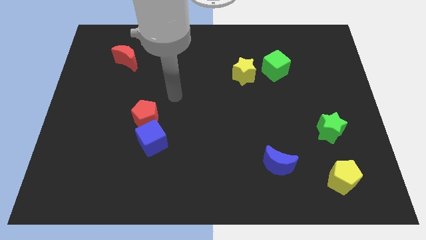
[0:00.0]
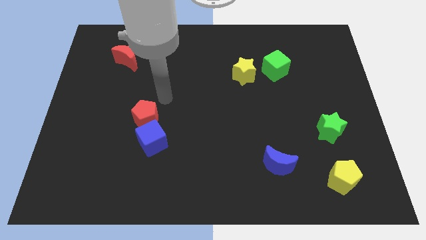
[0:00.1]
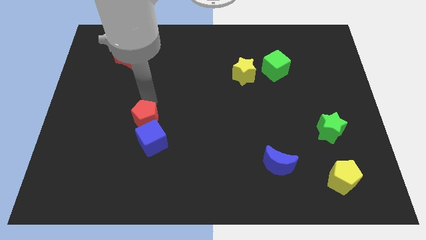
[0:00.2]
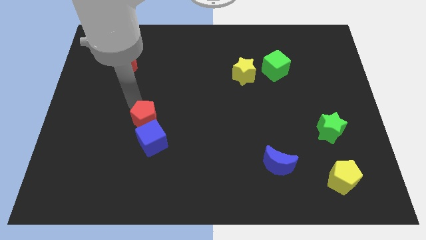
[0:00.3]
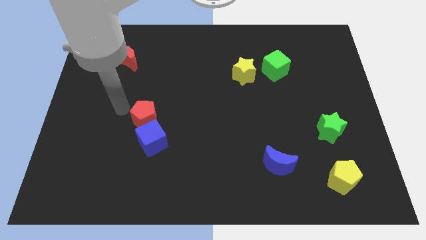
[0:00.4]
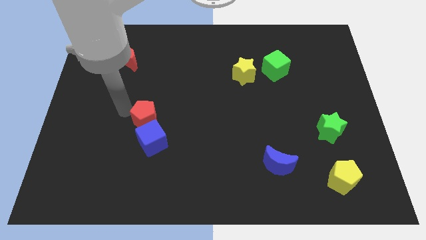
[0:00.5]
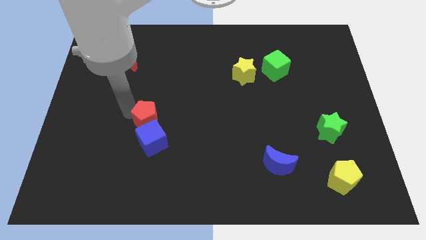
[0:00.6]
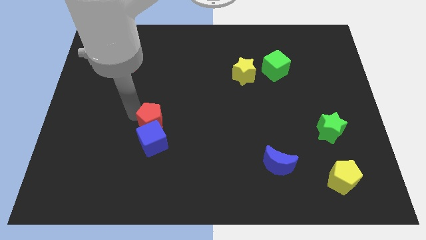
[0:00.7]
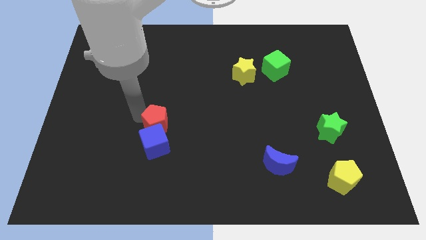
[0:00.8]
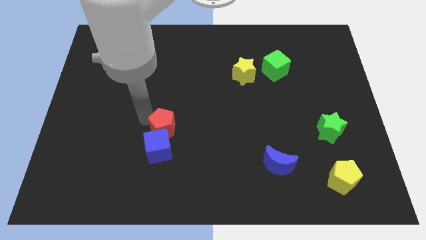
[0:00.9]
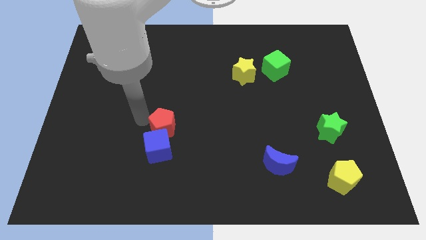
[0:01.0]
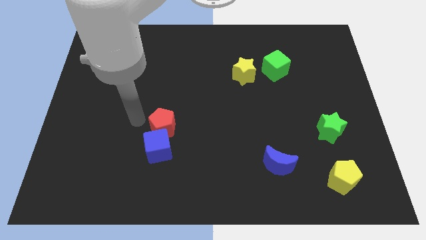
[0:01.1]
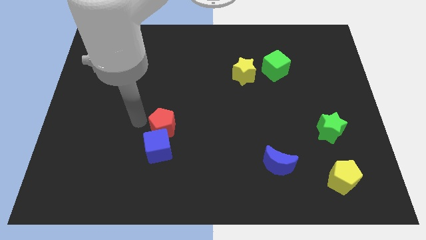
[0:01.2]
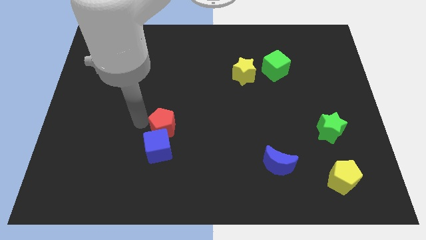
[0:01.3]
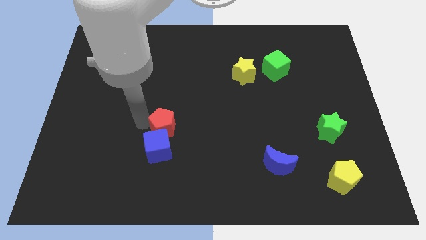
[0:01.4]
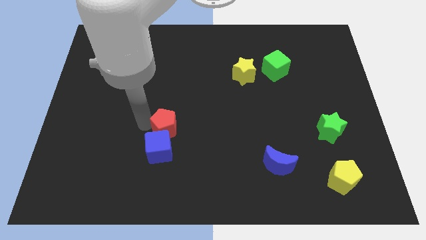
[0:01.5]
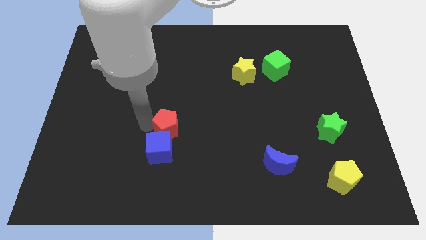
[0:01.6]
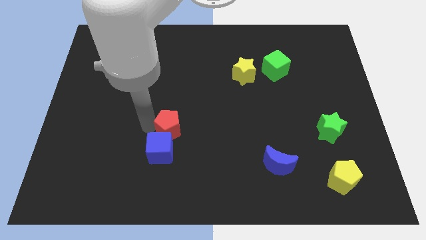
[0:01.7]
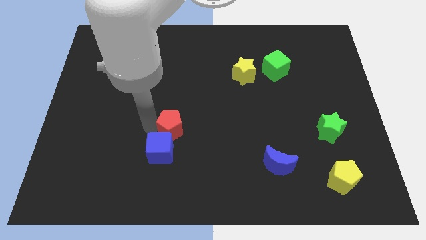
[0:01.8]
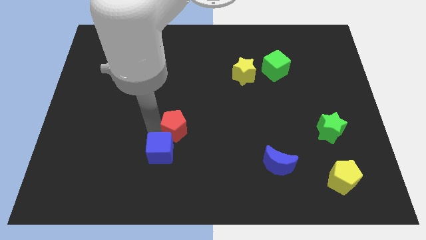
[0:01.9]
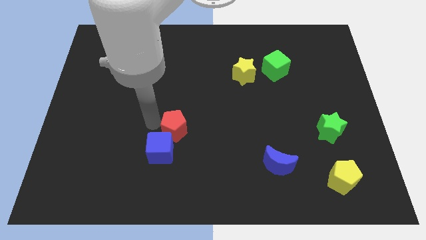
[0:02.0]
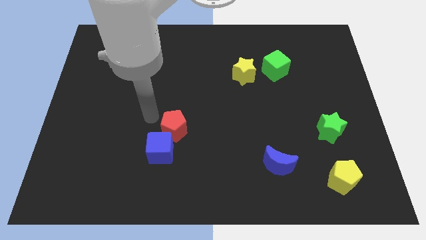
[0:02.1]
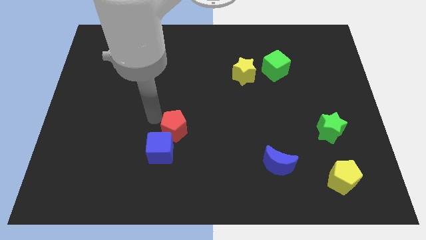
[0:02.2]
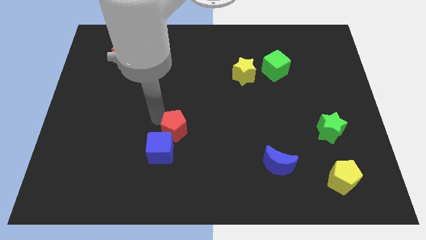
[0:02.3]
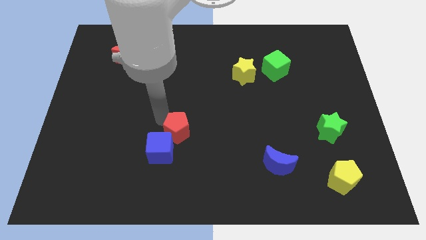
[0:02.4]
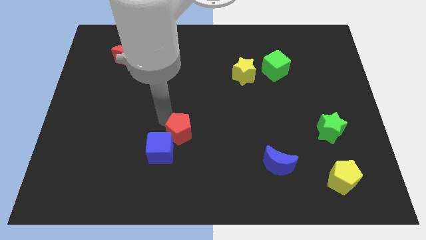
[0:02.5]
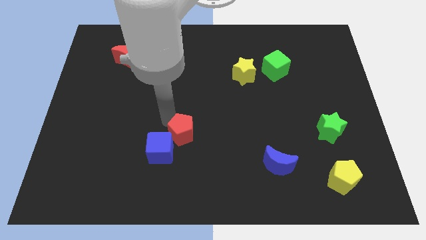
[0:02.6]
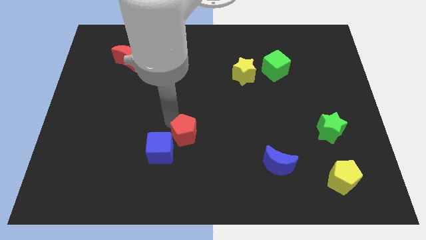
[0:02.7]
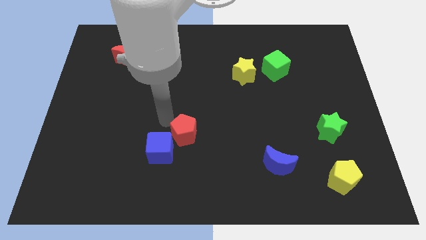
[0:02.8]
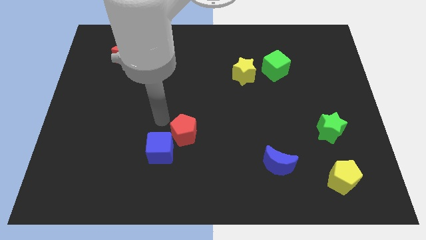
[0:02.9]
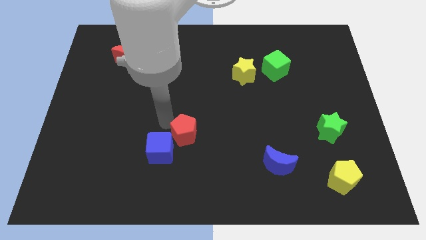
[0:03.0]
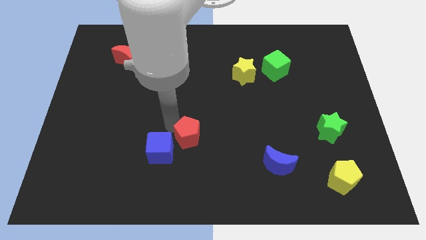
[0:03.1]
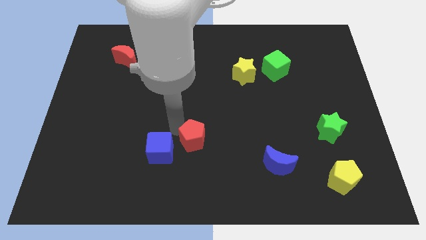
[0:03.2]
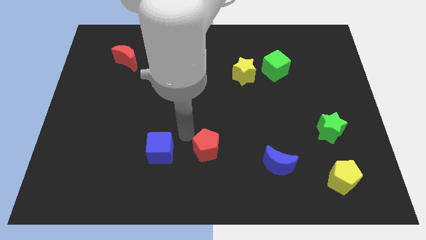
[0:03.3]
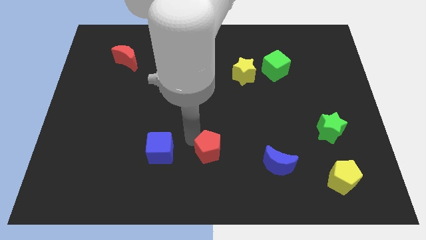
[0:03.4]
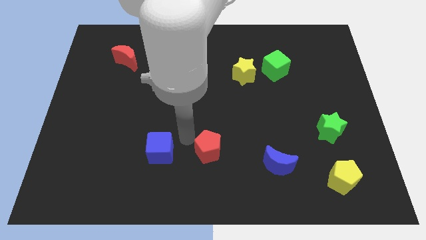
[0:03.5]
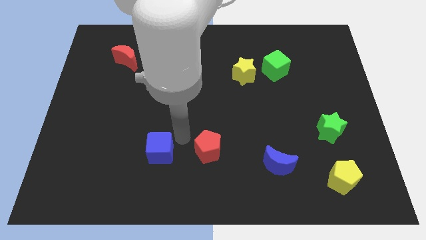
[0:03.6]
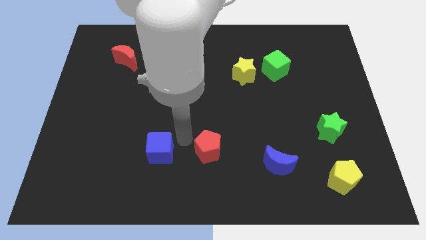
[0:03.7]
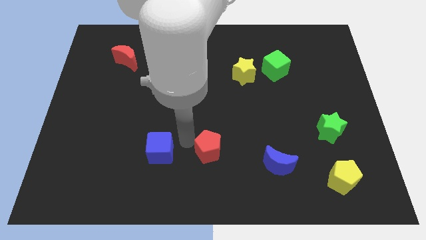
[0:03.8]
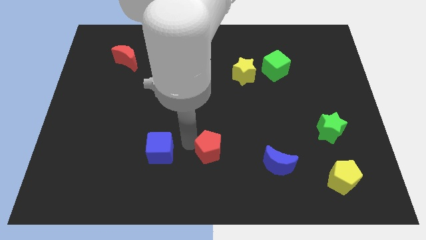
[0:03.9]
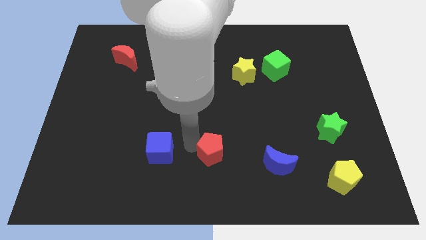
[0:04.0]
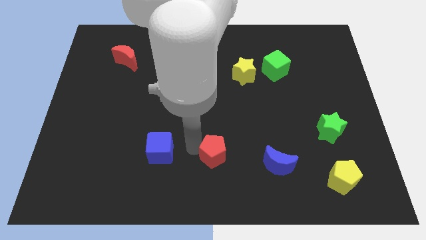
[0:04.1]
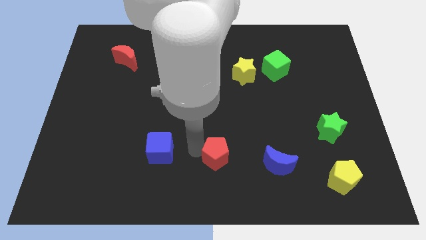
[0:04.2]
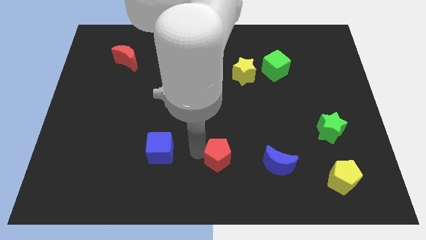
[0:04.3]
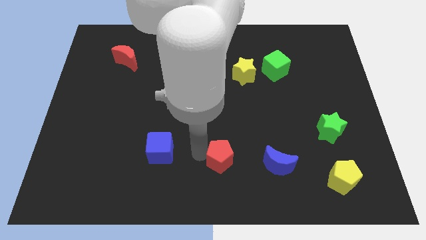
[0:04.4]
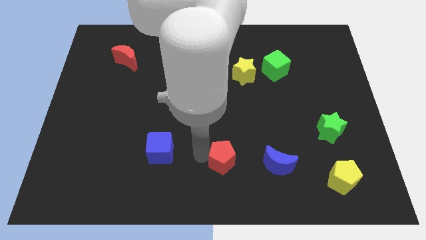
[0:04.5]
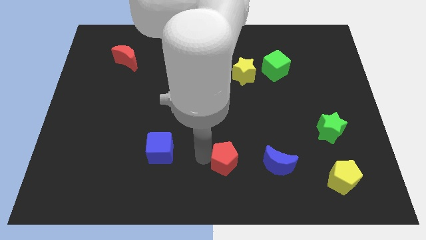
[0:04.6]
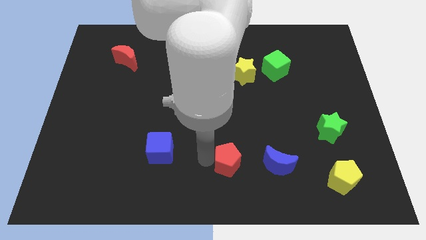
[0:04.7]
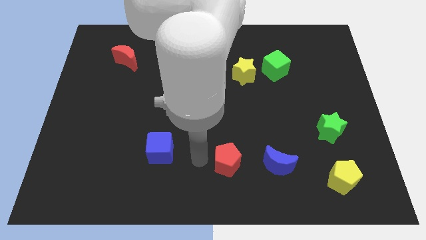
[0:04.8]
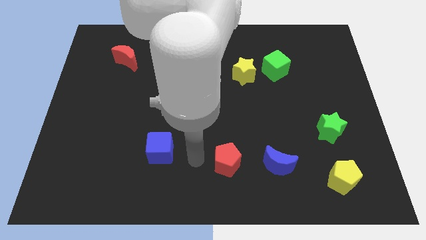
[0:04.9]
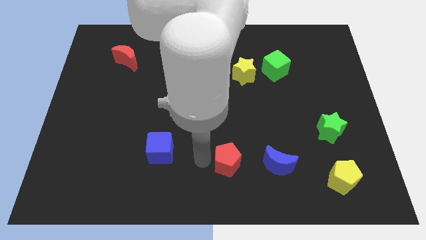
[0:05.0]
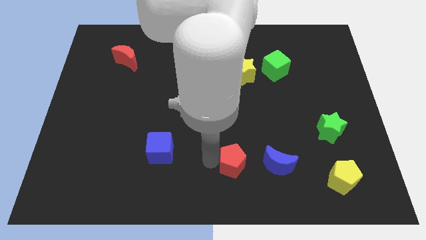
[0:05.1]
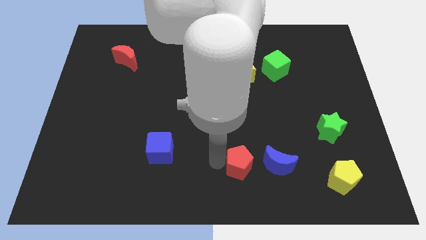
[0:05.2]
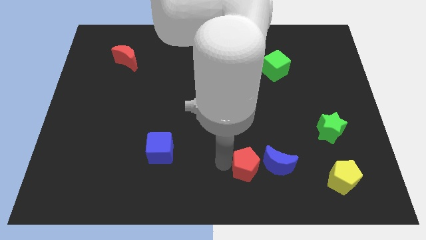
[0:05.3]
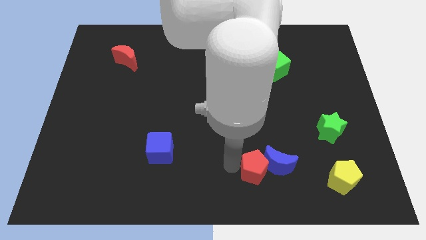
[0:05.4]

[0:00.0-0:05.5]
slide the red pentagon next to the blue moon

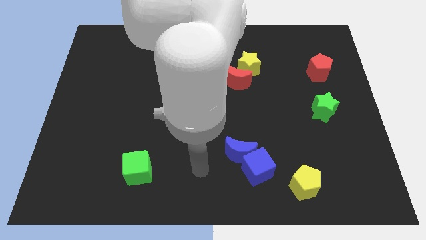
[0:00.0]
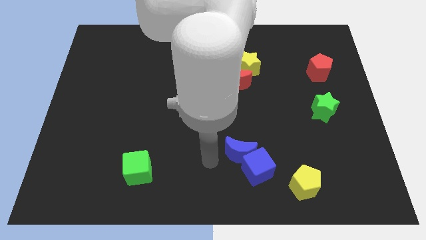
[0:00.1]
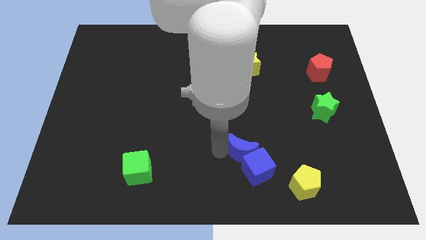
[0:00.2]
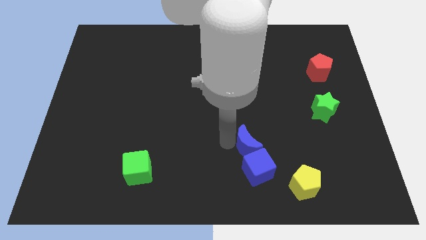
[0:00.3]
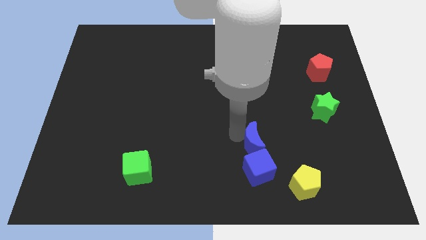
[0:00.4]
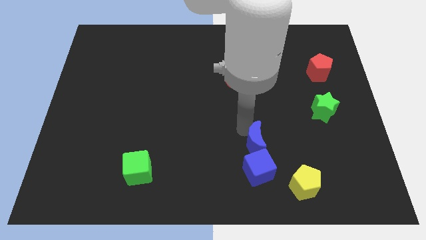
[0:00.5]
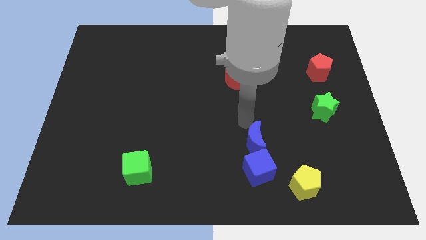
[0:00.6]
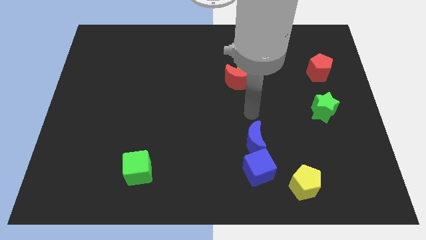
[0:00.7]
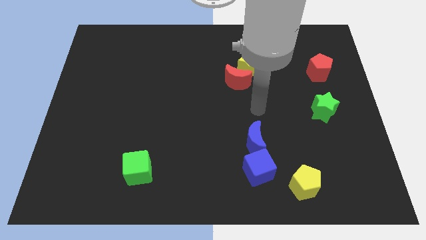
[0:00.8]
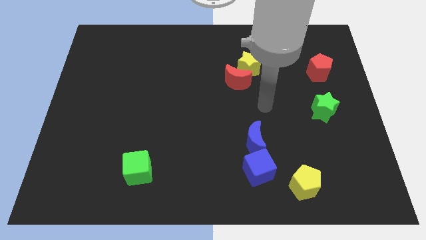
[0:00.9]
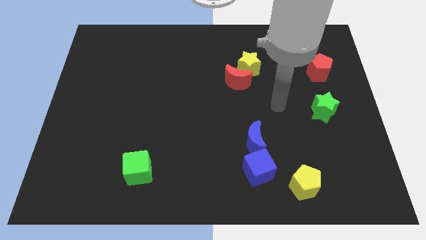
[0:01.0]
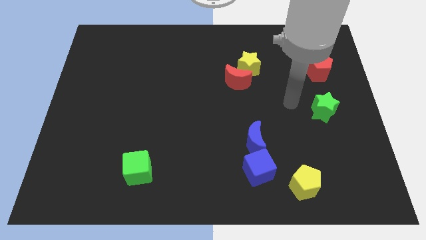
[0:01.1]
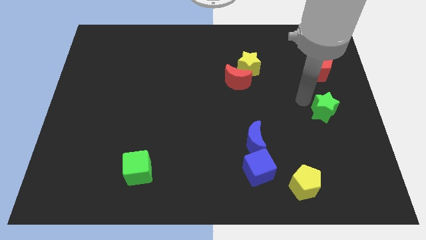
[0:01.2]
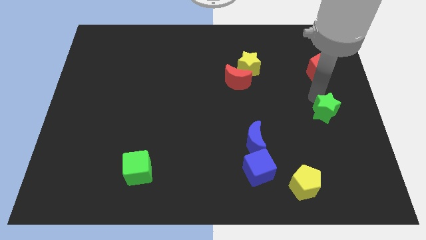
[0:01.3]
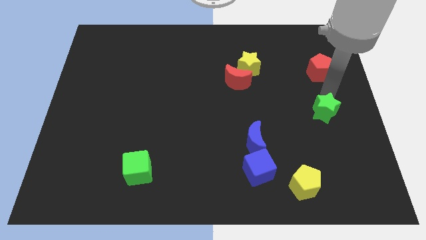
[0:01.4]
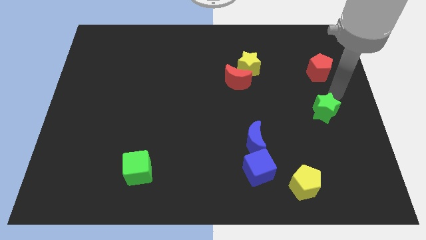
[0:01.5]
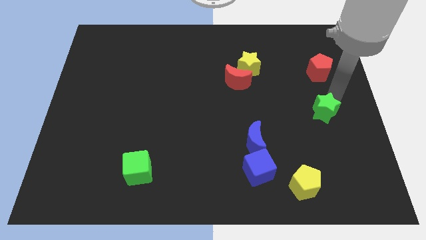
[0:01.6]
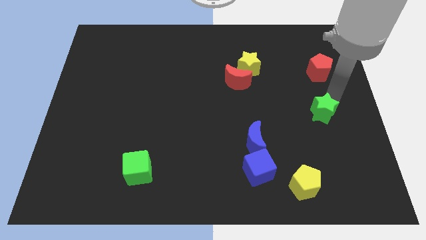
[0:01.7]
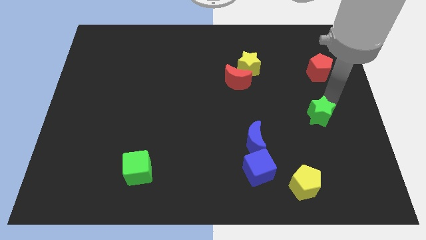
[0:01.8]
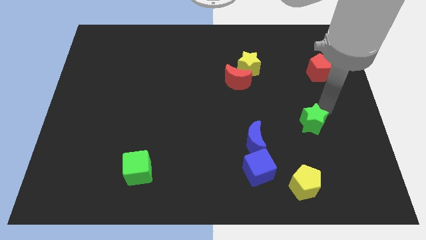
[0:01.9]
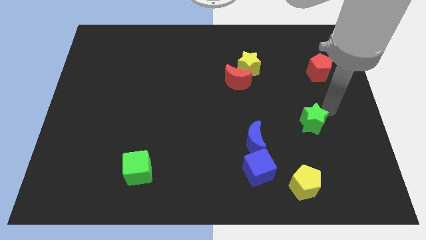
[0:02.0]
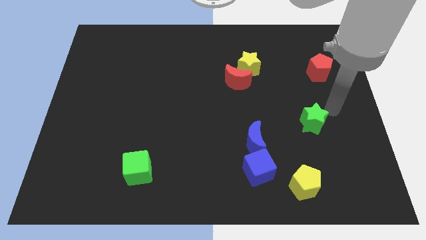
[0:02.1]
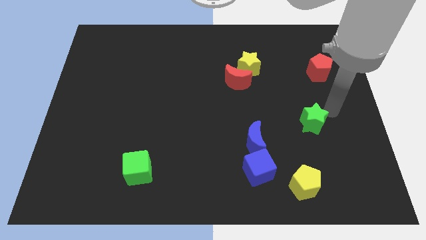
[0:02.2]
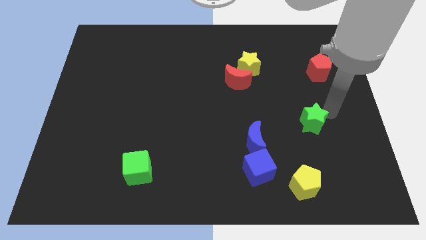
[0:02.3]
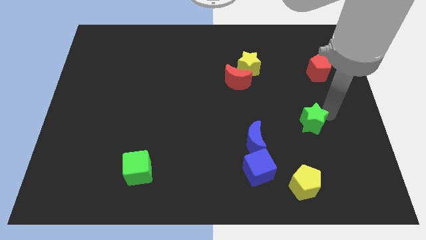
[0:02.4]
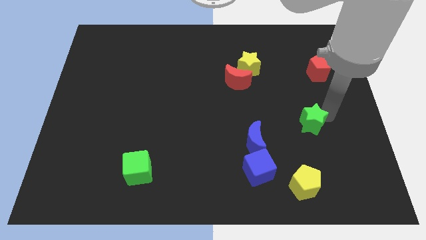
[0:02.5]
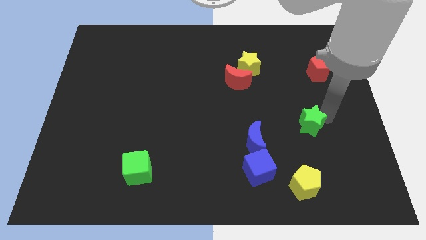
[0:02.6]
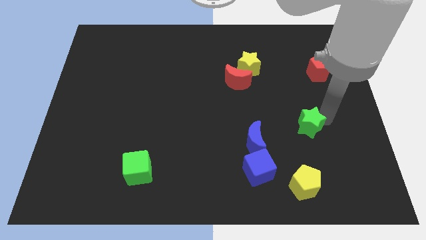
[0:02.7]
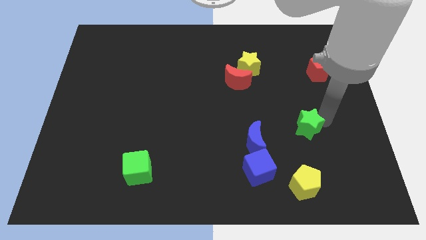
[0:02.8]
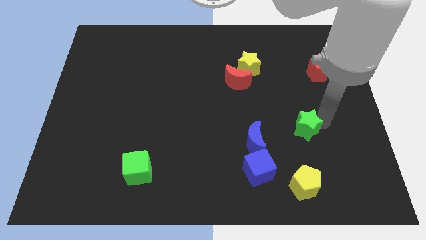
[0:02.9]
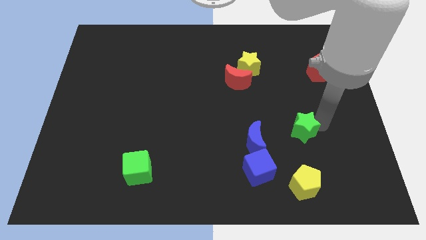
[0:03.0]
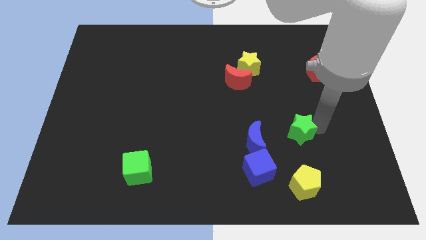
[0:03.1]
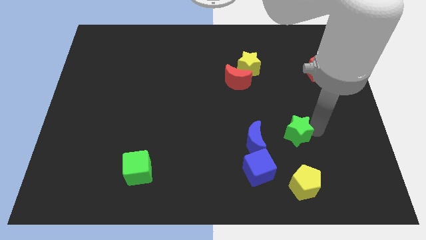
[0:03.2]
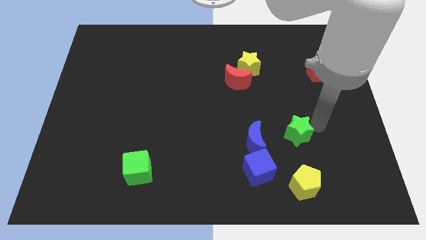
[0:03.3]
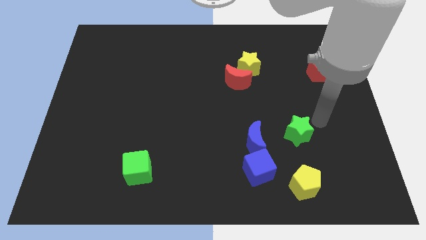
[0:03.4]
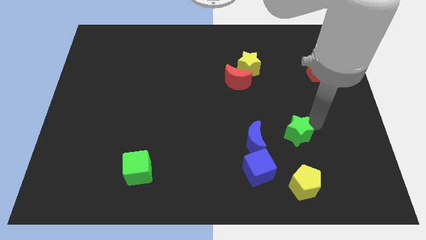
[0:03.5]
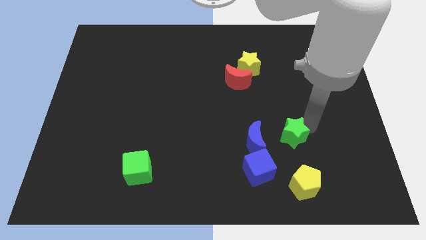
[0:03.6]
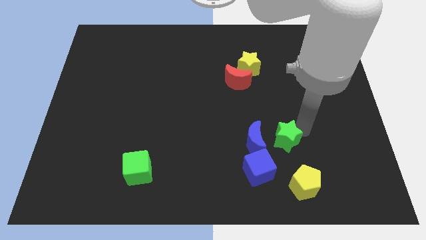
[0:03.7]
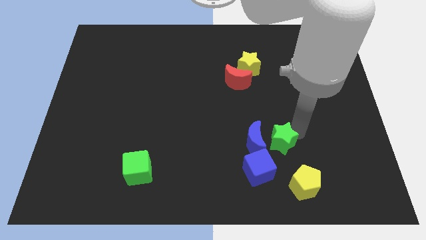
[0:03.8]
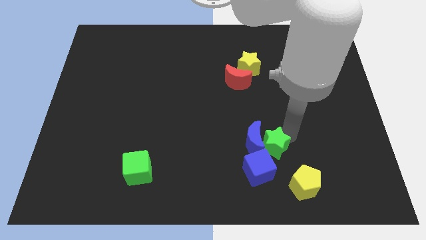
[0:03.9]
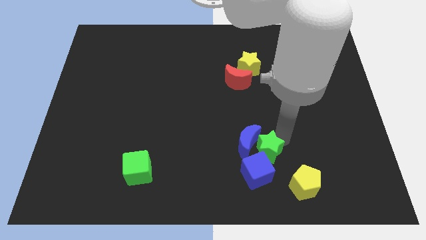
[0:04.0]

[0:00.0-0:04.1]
push the green star next to the blue cube
